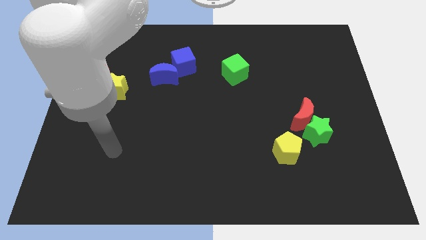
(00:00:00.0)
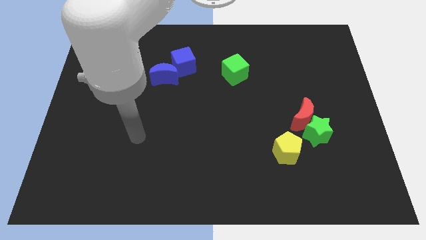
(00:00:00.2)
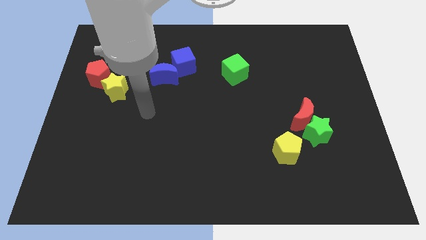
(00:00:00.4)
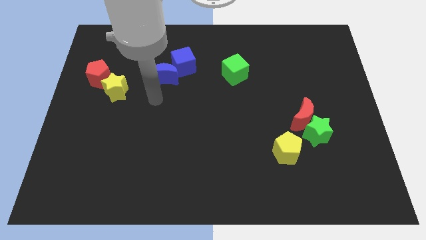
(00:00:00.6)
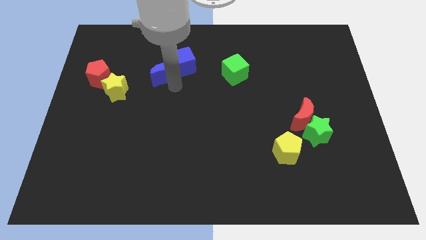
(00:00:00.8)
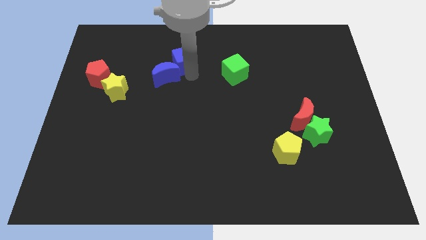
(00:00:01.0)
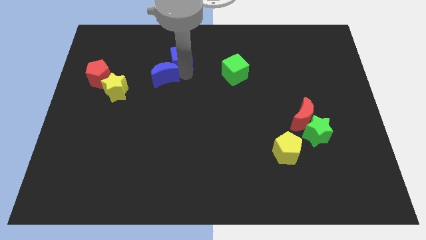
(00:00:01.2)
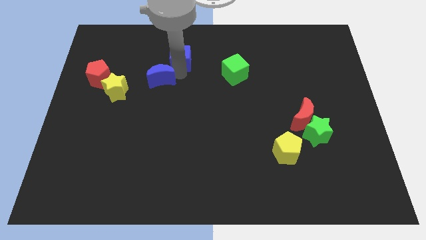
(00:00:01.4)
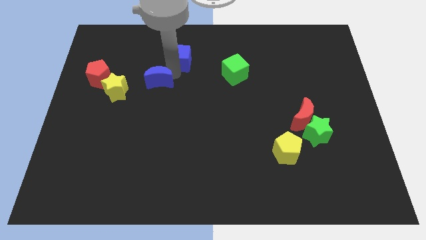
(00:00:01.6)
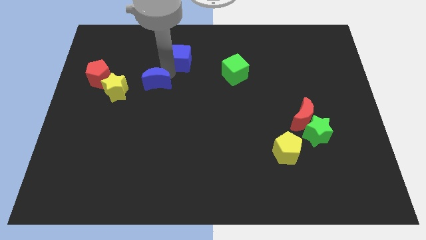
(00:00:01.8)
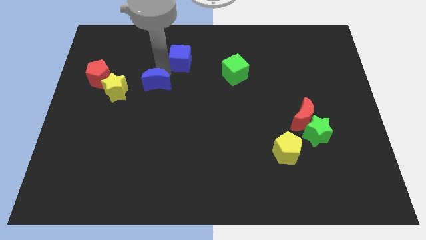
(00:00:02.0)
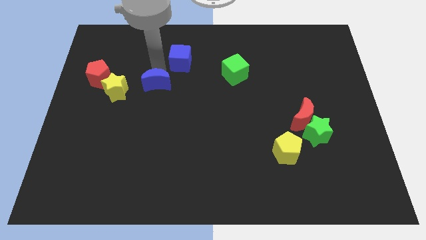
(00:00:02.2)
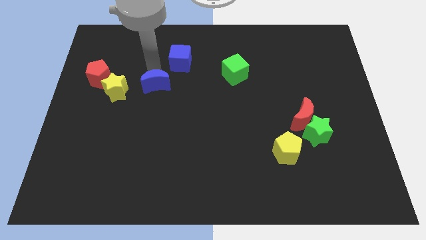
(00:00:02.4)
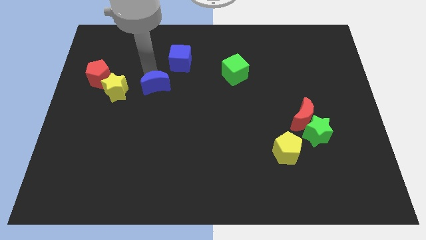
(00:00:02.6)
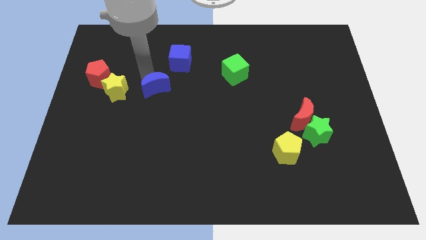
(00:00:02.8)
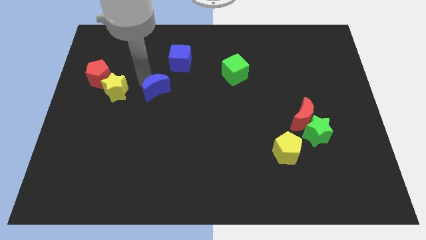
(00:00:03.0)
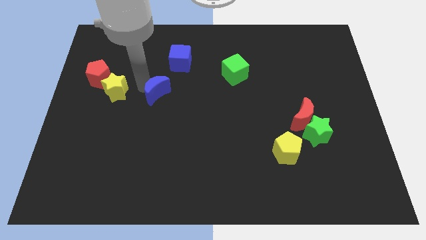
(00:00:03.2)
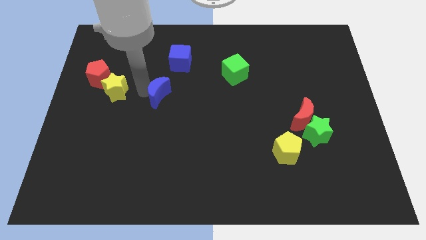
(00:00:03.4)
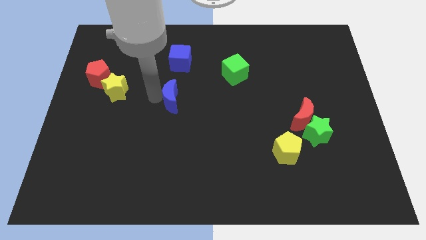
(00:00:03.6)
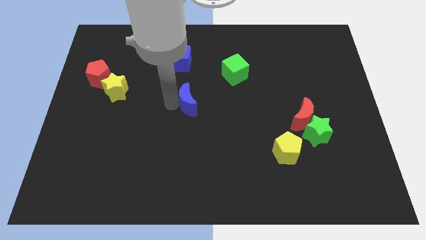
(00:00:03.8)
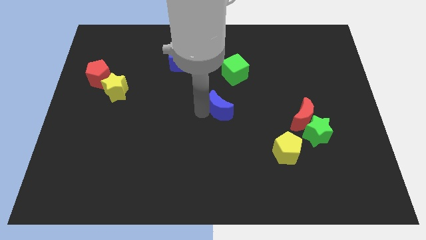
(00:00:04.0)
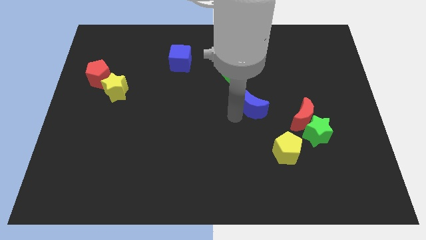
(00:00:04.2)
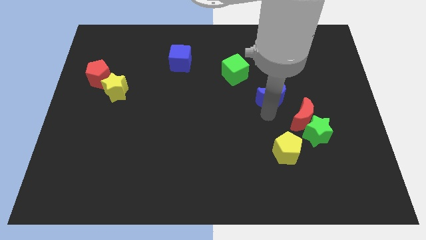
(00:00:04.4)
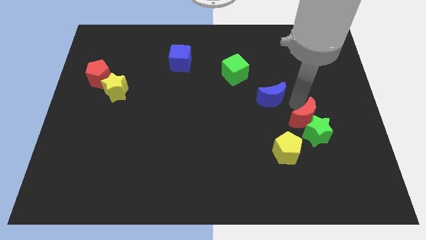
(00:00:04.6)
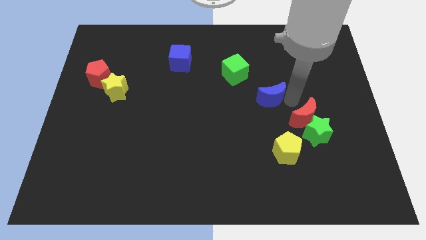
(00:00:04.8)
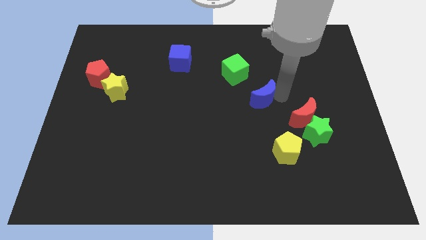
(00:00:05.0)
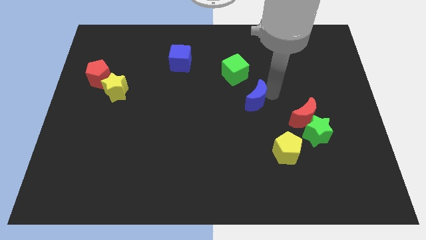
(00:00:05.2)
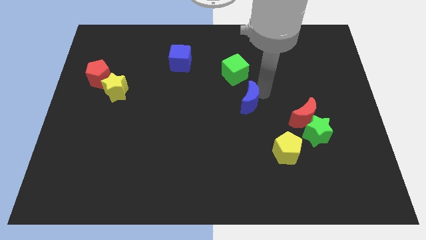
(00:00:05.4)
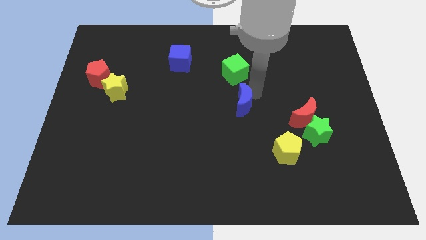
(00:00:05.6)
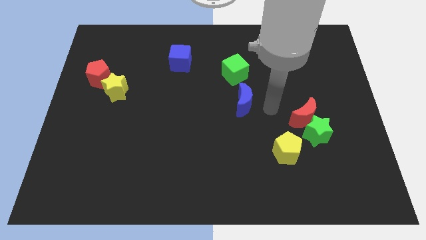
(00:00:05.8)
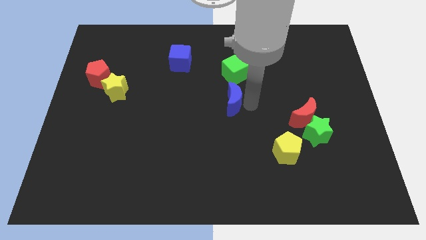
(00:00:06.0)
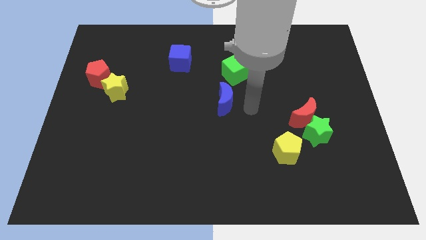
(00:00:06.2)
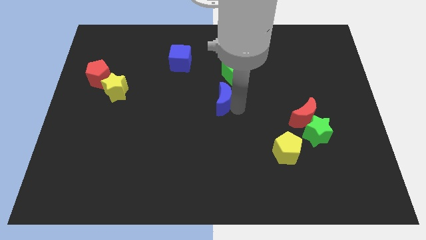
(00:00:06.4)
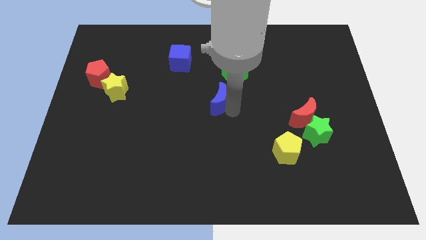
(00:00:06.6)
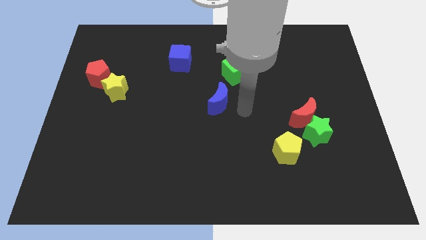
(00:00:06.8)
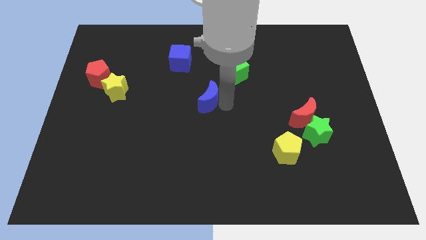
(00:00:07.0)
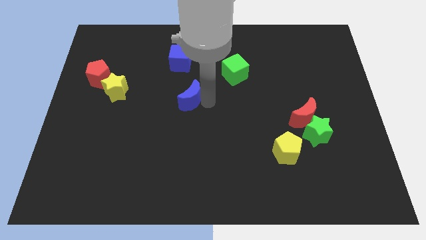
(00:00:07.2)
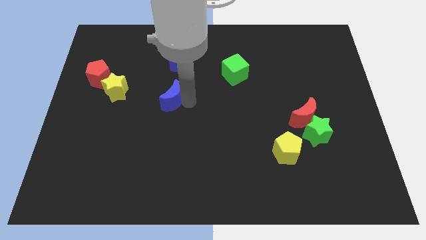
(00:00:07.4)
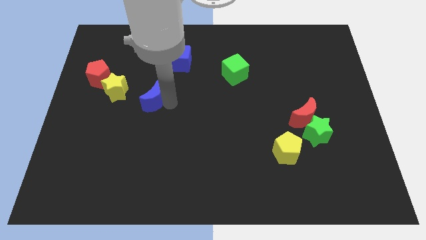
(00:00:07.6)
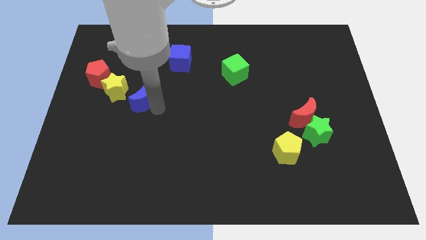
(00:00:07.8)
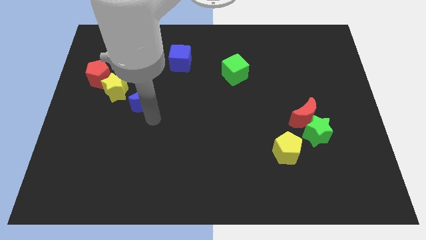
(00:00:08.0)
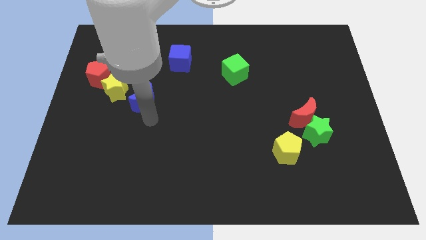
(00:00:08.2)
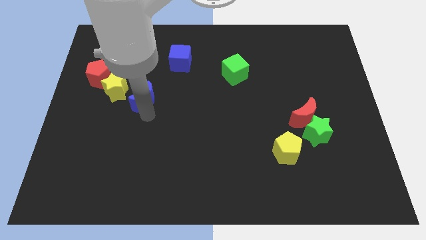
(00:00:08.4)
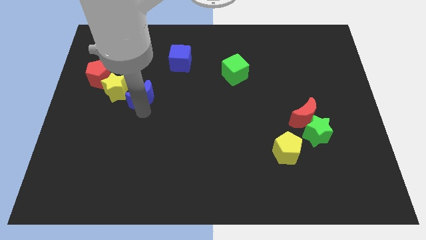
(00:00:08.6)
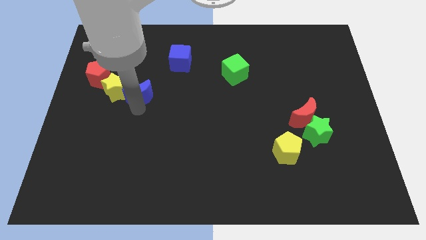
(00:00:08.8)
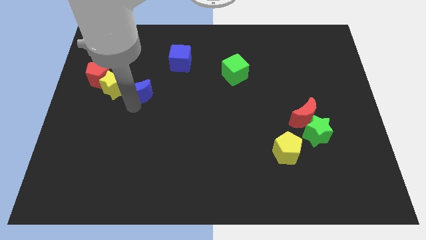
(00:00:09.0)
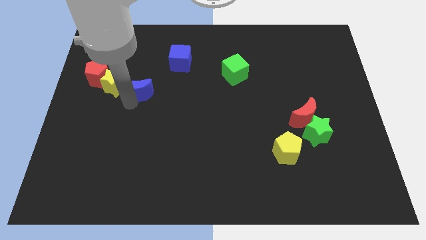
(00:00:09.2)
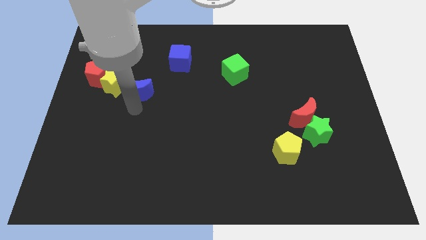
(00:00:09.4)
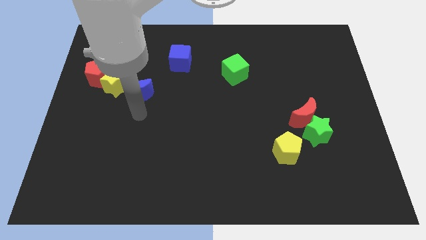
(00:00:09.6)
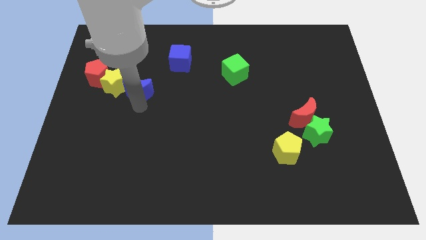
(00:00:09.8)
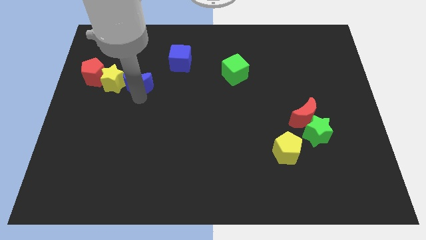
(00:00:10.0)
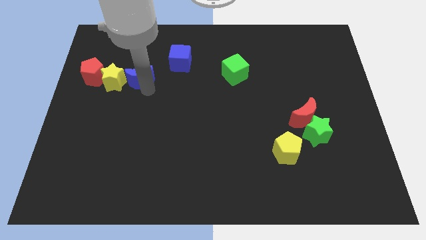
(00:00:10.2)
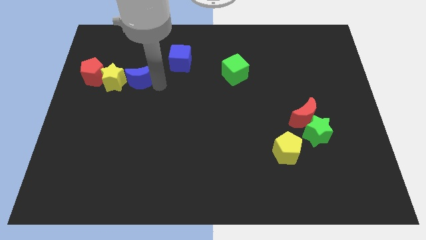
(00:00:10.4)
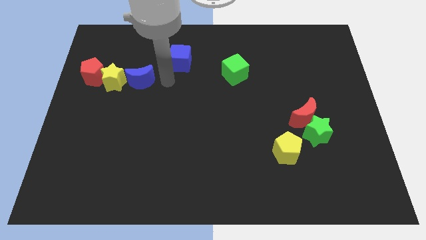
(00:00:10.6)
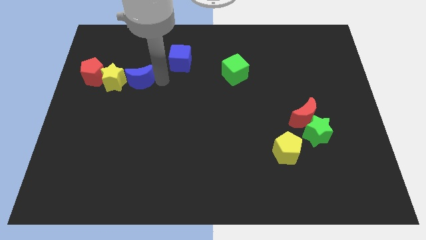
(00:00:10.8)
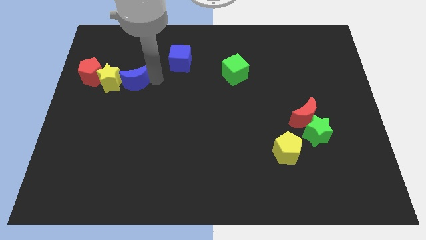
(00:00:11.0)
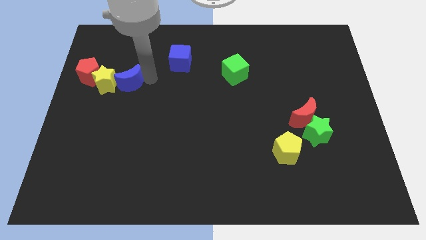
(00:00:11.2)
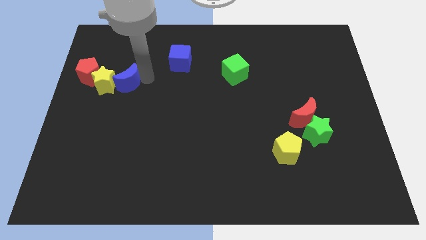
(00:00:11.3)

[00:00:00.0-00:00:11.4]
move the blue moon to the yellow star

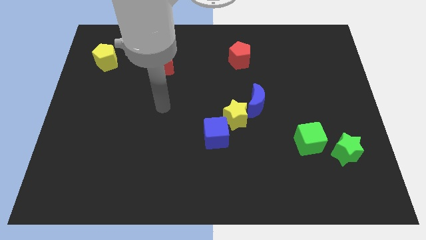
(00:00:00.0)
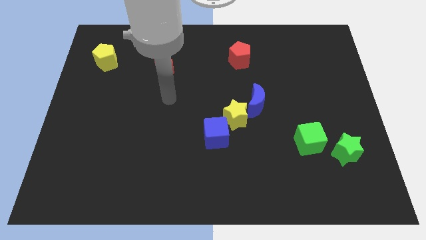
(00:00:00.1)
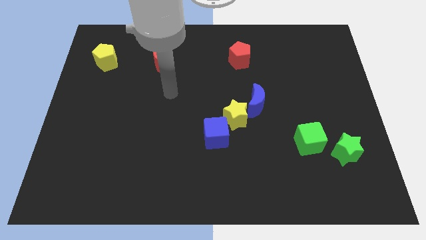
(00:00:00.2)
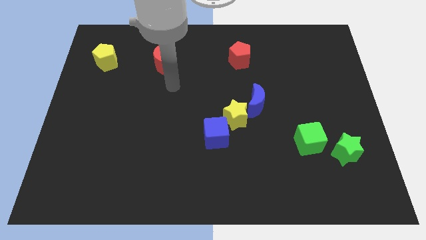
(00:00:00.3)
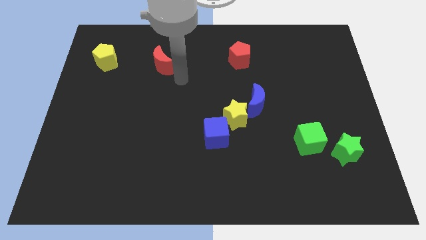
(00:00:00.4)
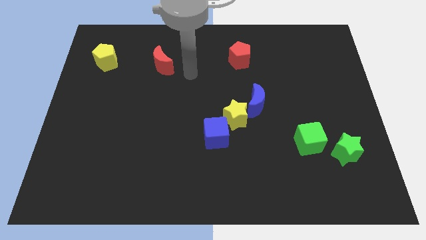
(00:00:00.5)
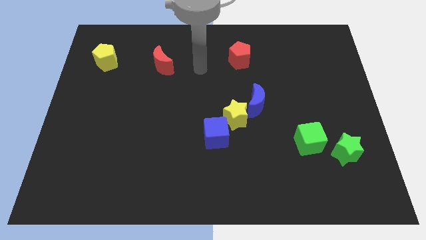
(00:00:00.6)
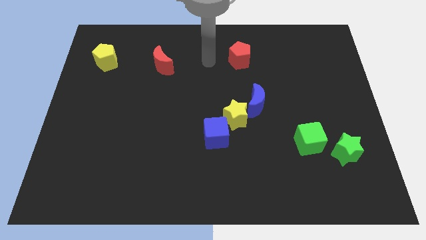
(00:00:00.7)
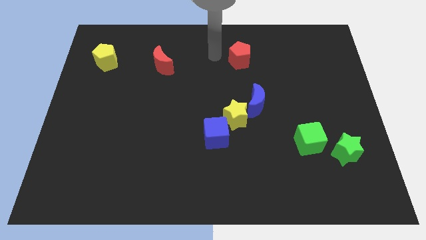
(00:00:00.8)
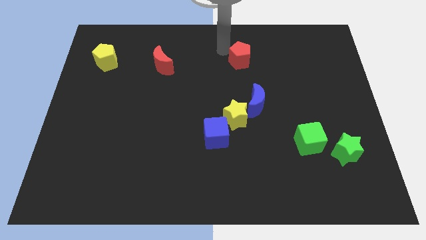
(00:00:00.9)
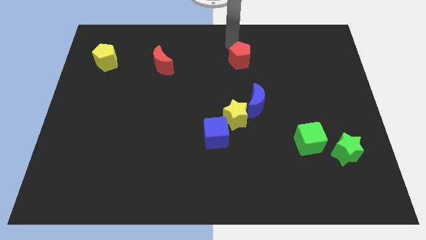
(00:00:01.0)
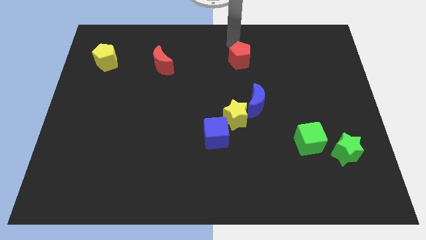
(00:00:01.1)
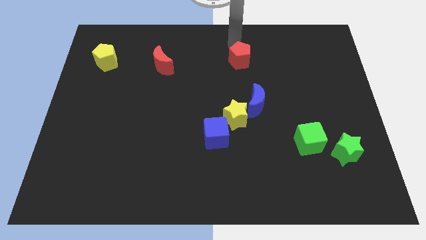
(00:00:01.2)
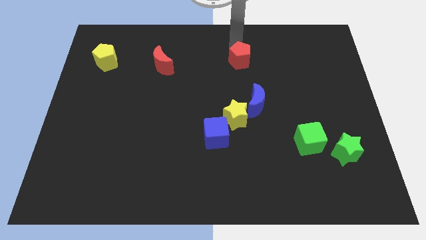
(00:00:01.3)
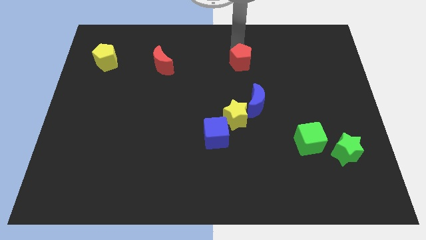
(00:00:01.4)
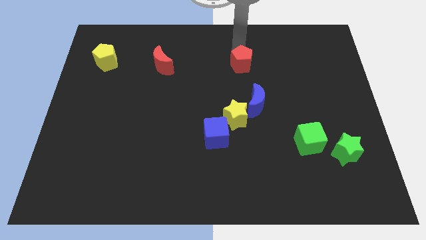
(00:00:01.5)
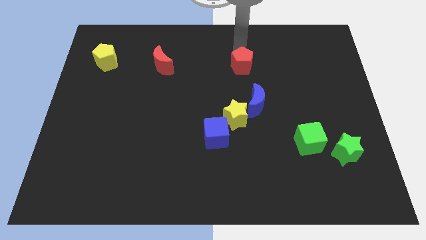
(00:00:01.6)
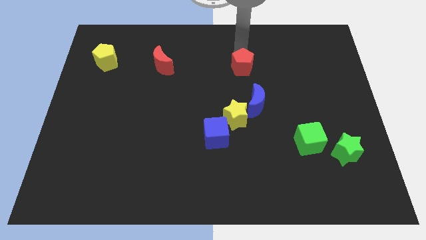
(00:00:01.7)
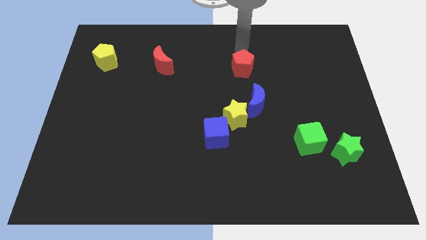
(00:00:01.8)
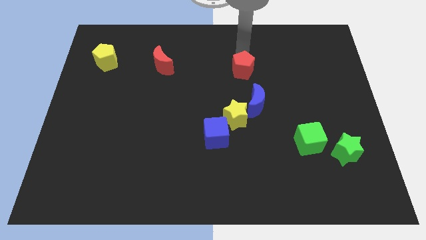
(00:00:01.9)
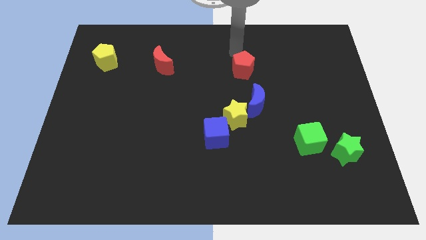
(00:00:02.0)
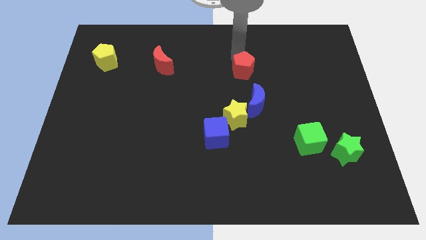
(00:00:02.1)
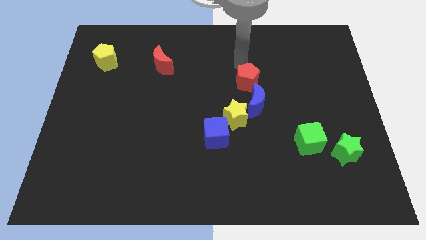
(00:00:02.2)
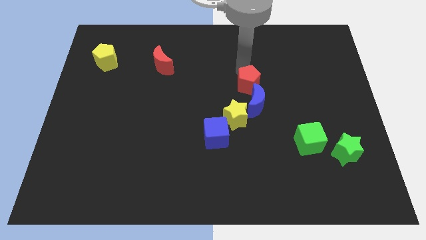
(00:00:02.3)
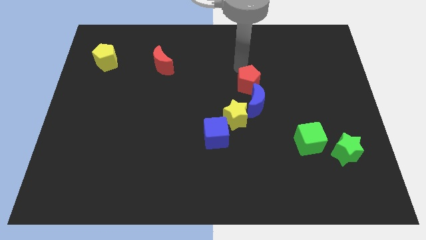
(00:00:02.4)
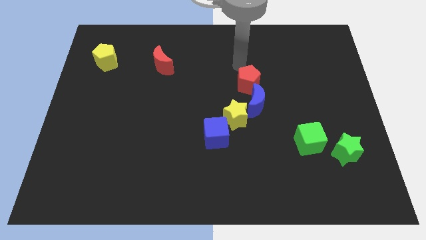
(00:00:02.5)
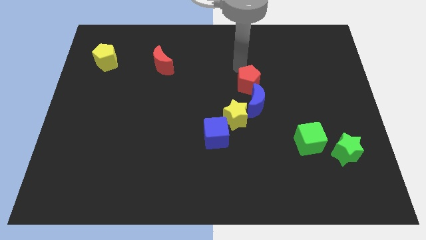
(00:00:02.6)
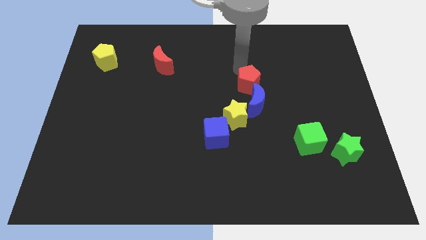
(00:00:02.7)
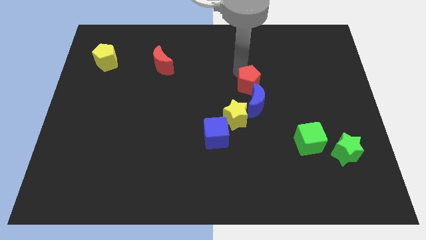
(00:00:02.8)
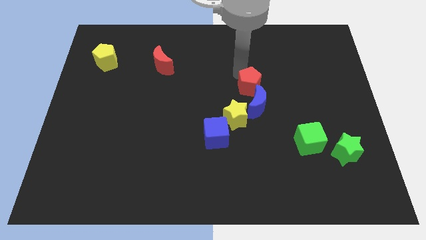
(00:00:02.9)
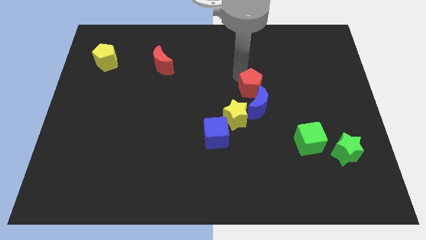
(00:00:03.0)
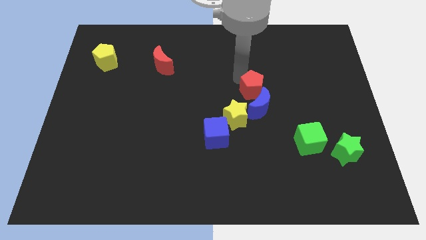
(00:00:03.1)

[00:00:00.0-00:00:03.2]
push the red pentagon to the blue moon
